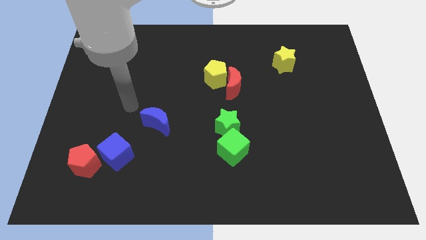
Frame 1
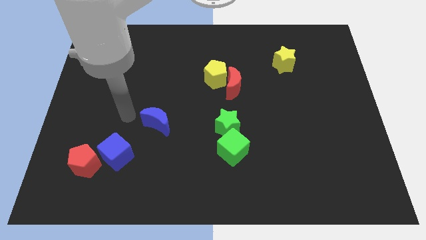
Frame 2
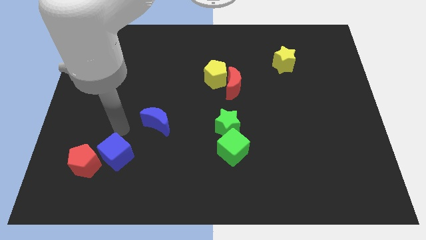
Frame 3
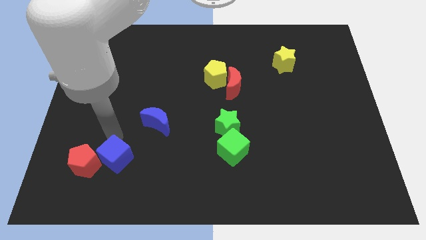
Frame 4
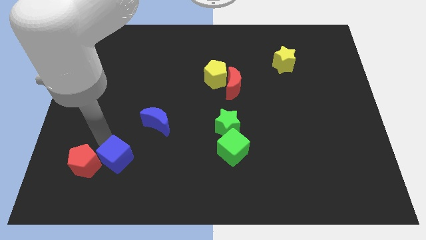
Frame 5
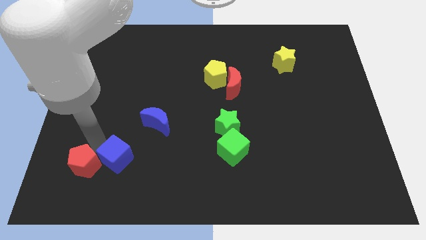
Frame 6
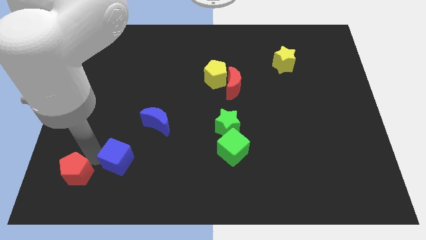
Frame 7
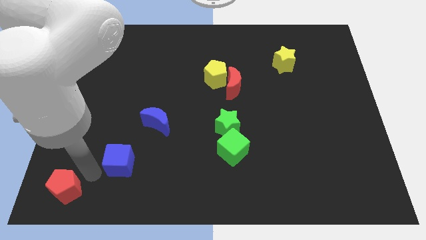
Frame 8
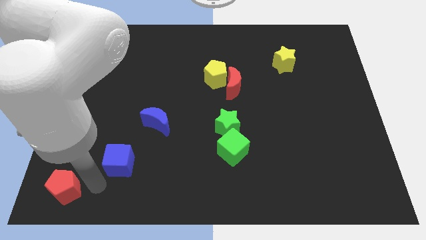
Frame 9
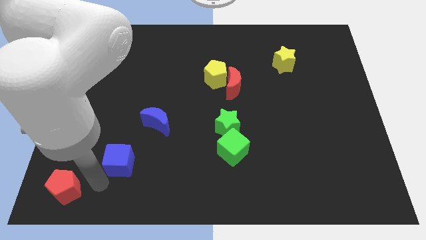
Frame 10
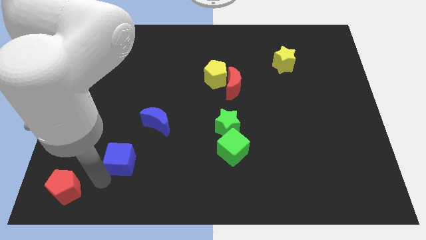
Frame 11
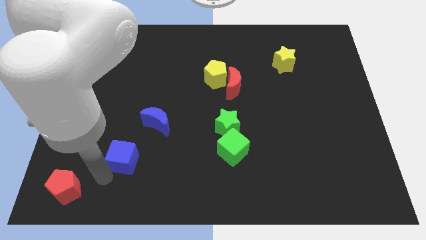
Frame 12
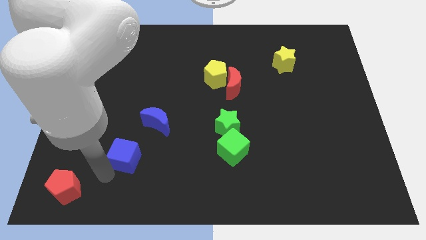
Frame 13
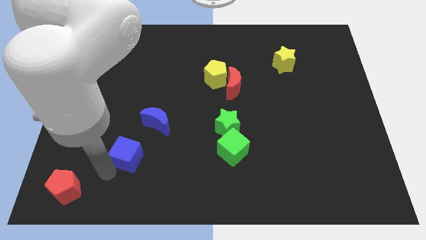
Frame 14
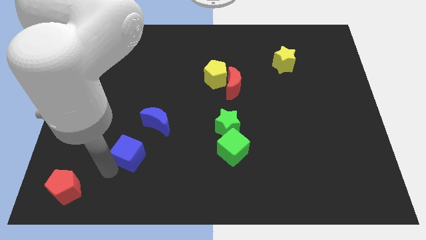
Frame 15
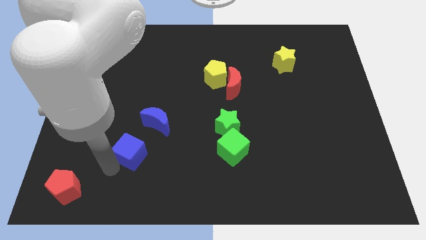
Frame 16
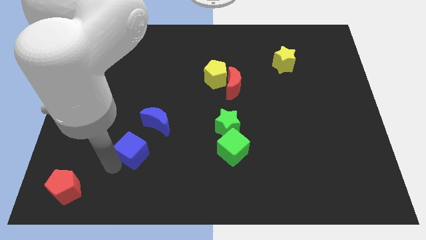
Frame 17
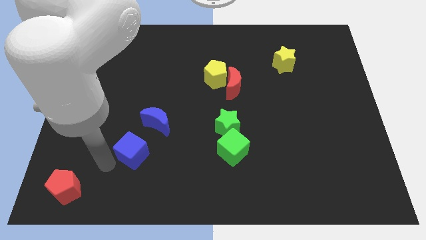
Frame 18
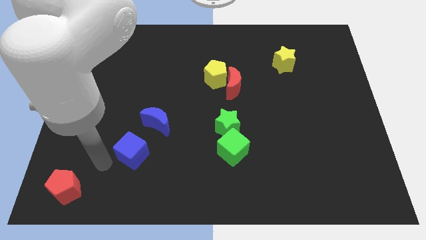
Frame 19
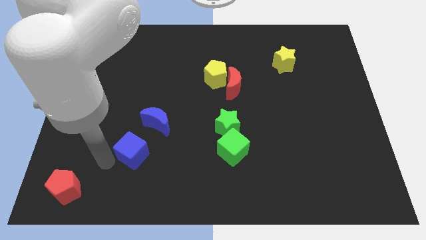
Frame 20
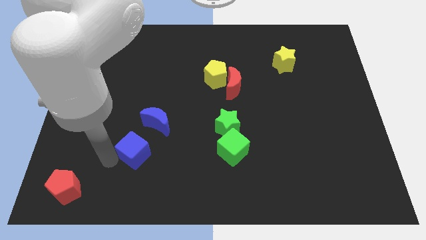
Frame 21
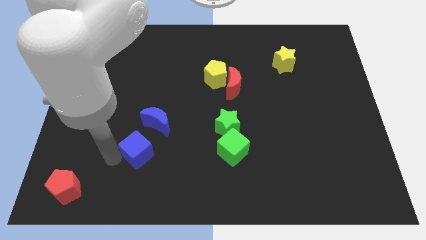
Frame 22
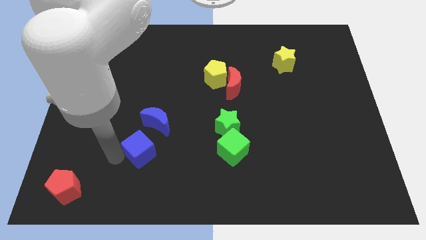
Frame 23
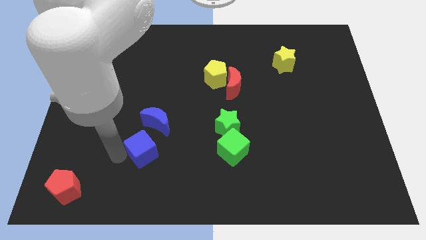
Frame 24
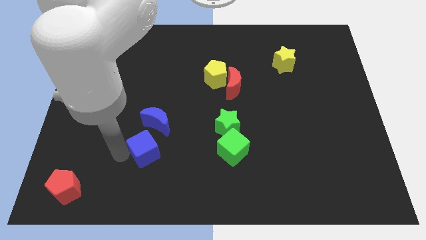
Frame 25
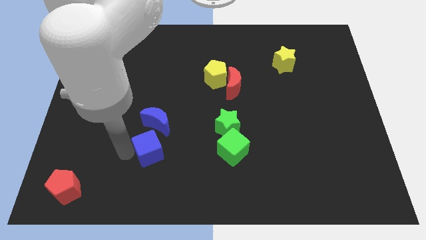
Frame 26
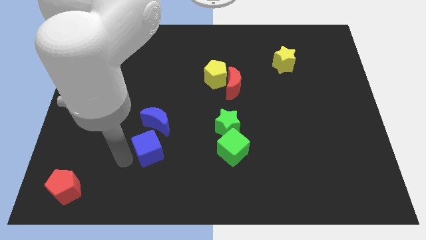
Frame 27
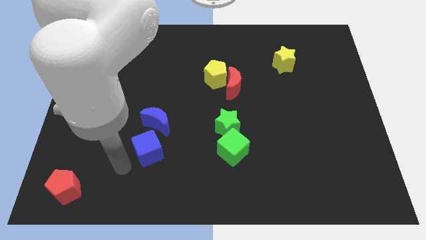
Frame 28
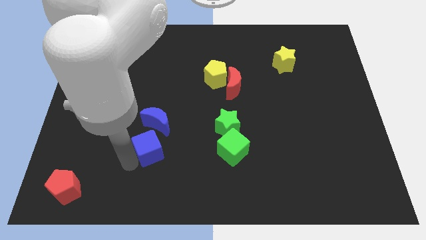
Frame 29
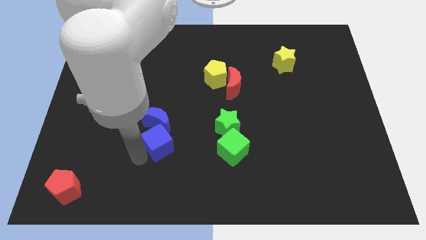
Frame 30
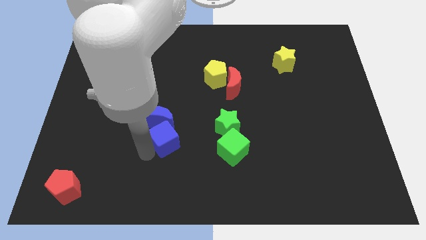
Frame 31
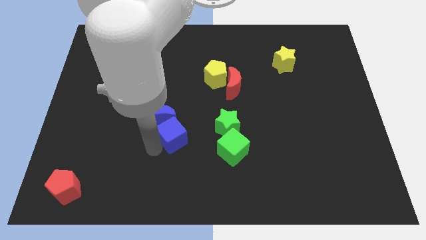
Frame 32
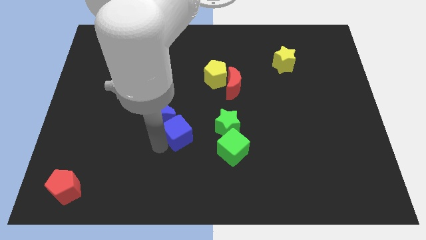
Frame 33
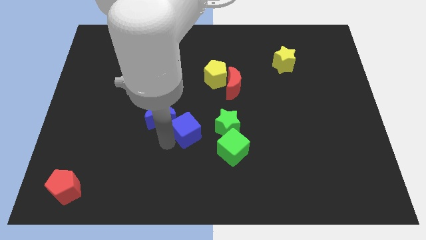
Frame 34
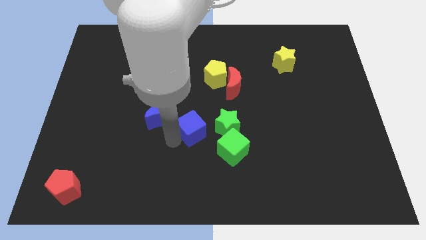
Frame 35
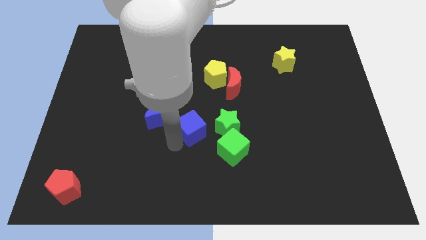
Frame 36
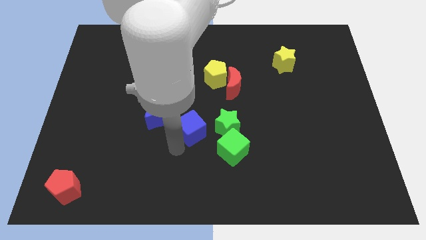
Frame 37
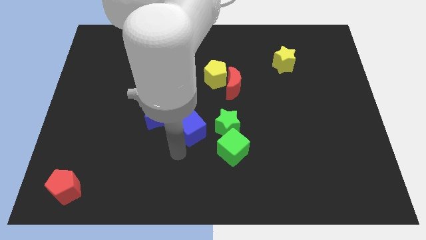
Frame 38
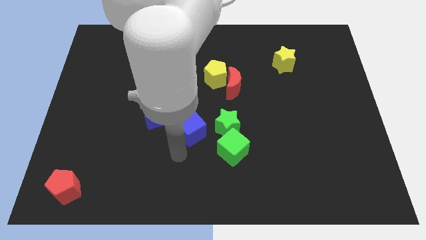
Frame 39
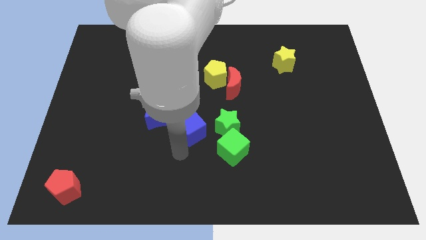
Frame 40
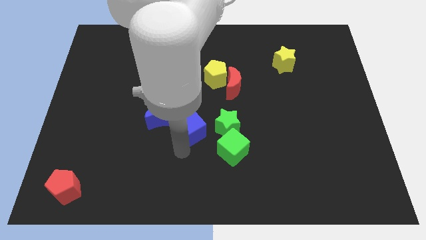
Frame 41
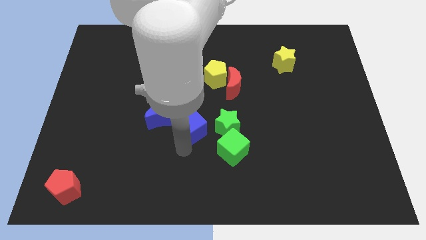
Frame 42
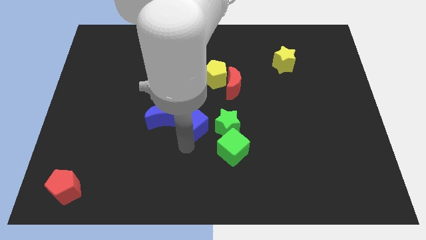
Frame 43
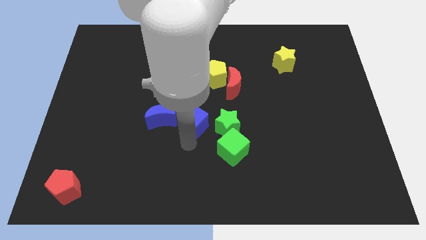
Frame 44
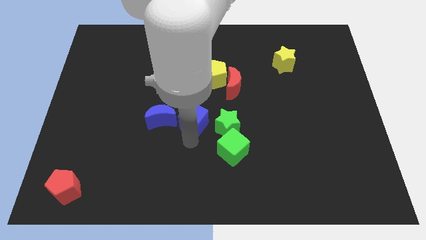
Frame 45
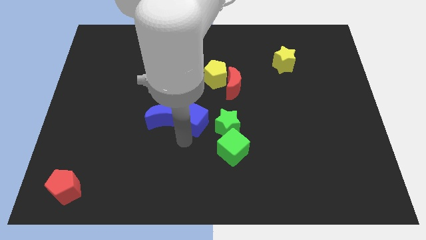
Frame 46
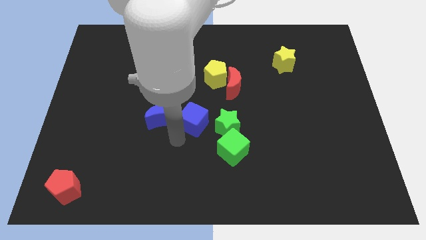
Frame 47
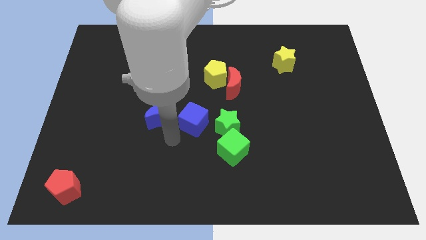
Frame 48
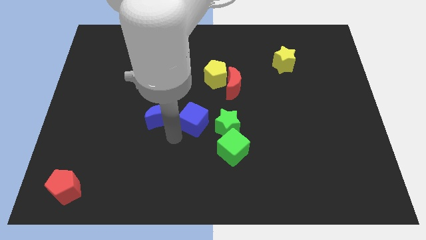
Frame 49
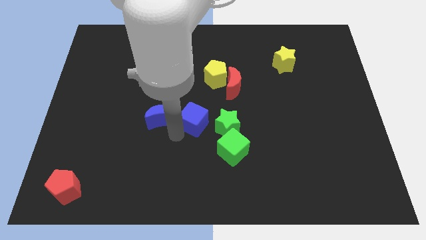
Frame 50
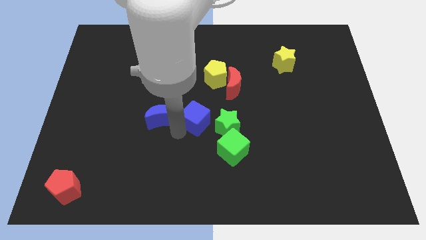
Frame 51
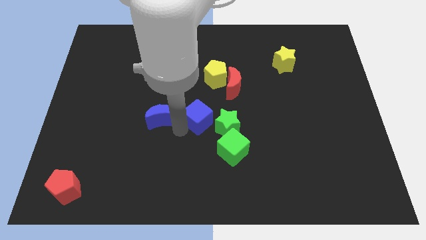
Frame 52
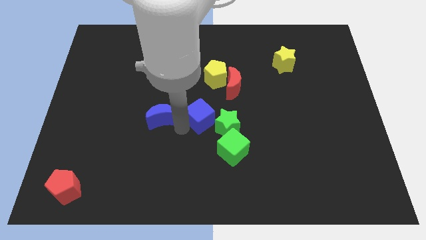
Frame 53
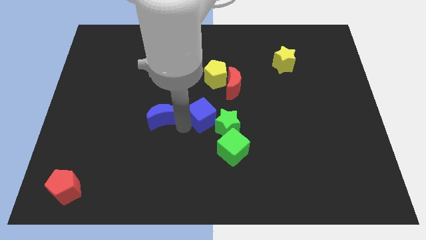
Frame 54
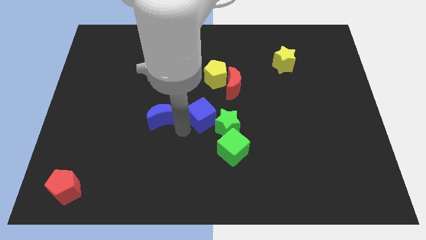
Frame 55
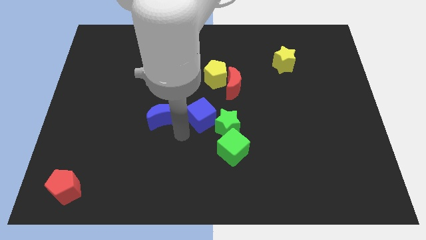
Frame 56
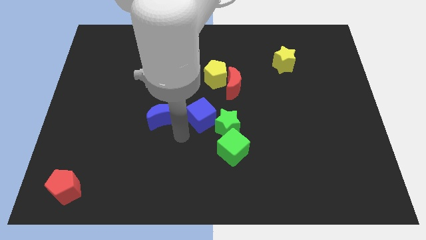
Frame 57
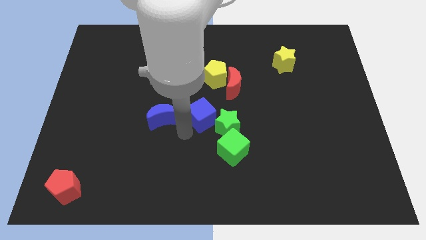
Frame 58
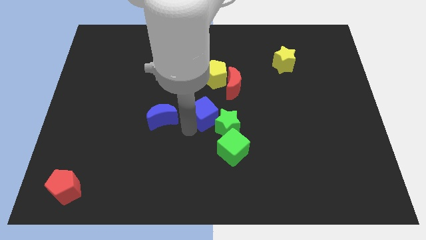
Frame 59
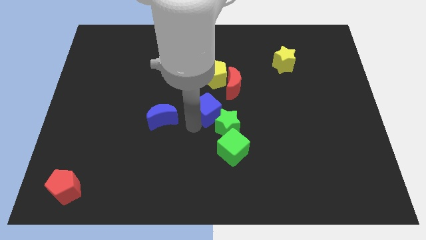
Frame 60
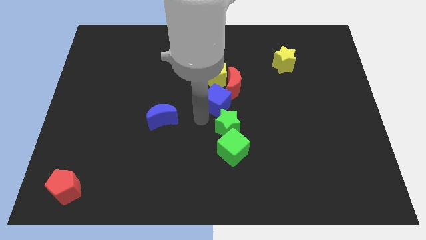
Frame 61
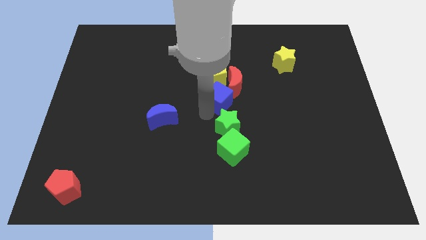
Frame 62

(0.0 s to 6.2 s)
slide the blue cube to the red moon
